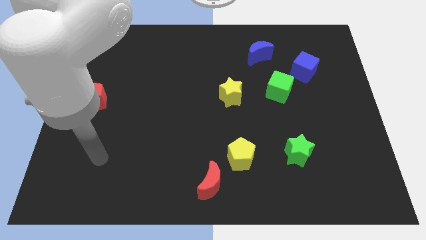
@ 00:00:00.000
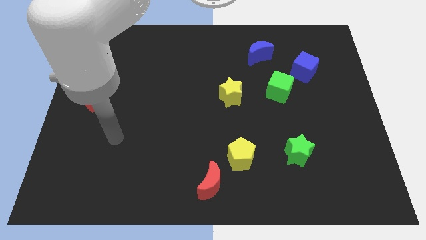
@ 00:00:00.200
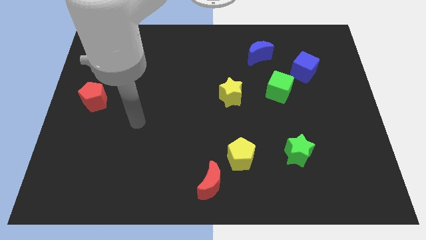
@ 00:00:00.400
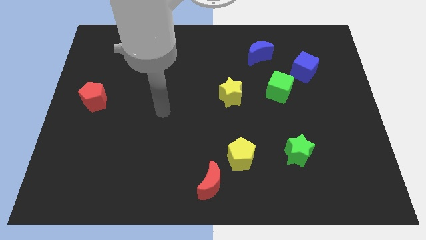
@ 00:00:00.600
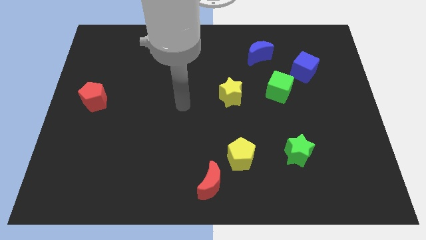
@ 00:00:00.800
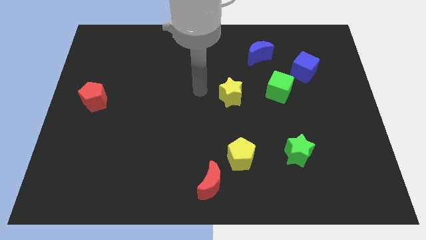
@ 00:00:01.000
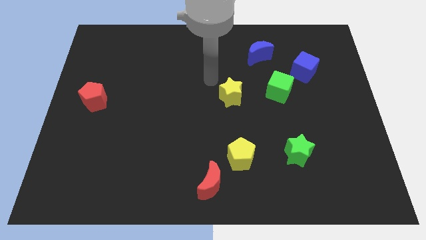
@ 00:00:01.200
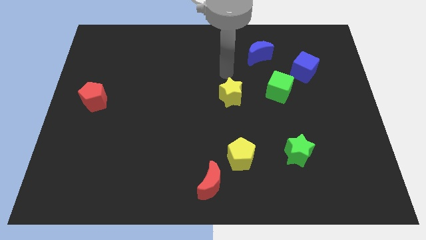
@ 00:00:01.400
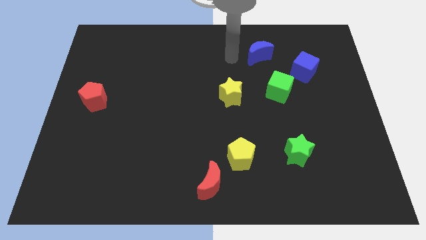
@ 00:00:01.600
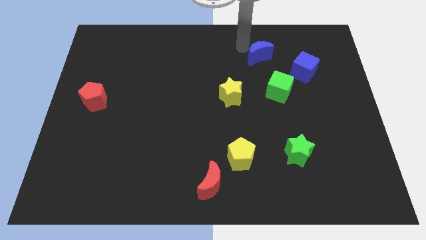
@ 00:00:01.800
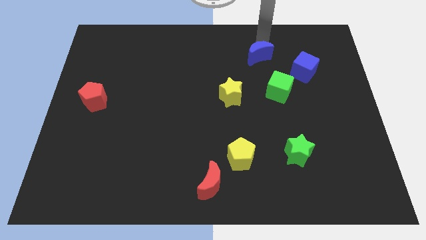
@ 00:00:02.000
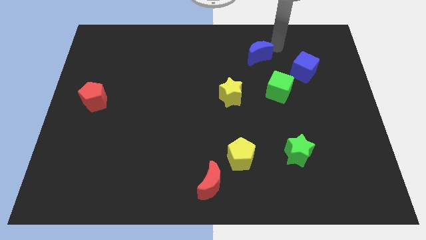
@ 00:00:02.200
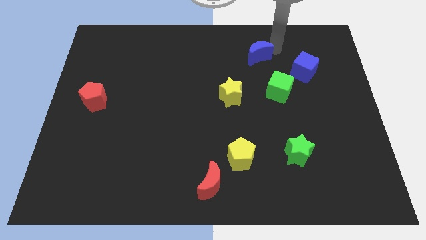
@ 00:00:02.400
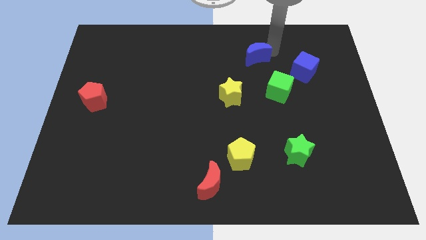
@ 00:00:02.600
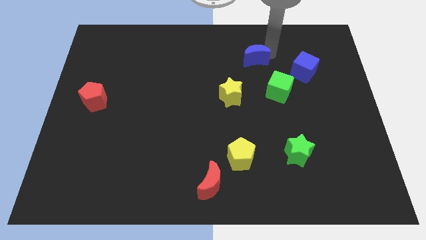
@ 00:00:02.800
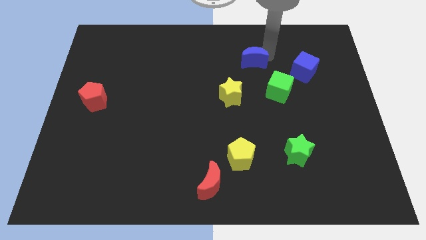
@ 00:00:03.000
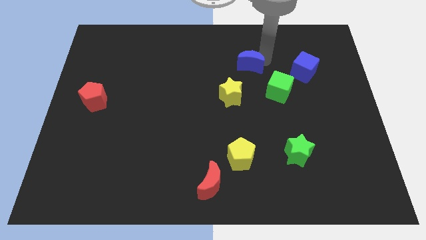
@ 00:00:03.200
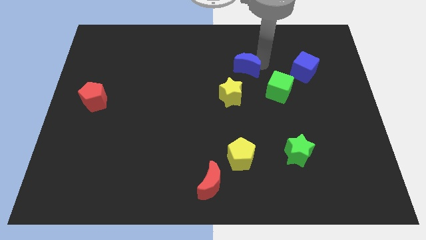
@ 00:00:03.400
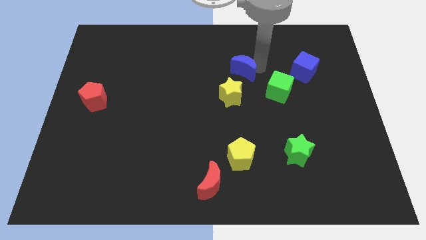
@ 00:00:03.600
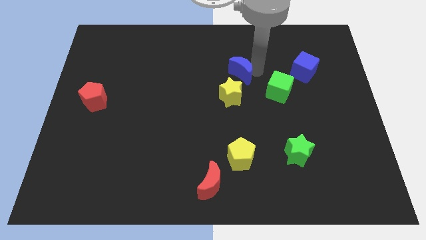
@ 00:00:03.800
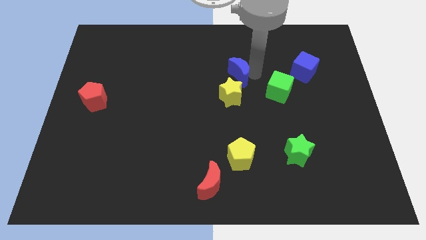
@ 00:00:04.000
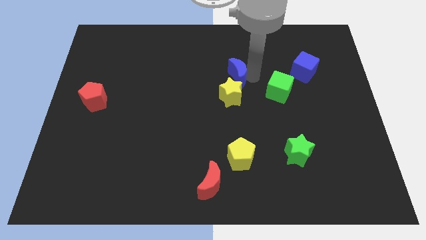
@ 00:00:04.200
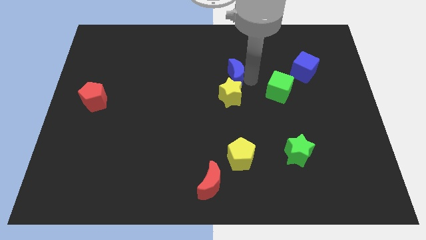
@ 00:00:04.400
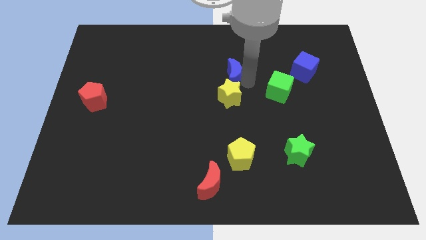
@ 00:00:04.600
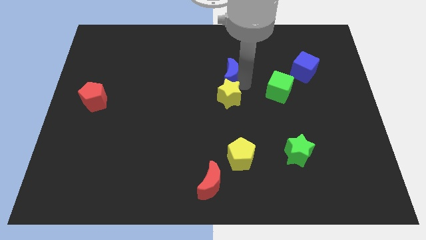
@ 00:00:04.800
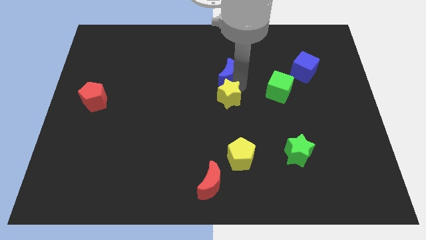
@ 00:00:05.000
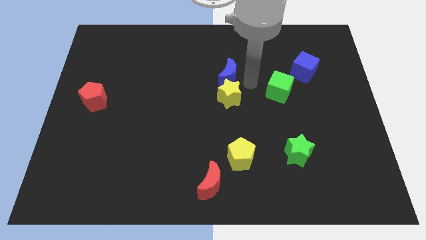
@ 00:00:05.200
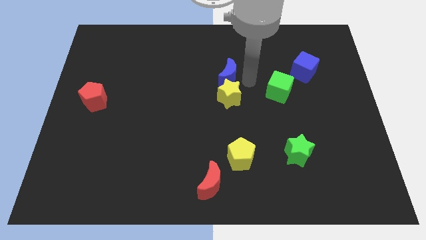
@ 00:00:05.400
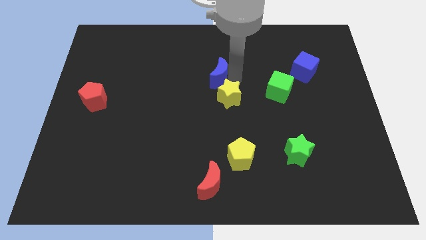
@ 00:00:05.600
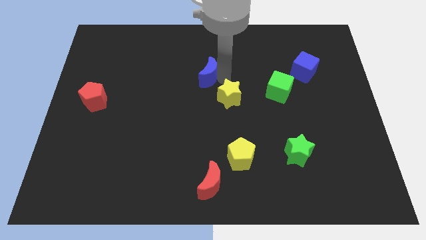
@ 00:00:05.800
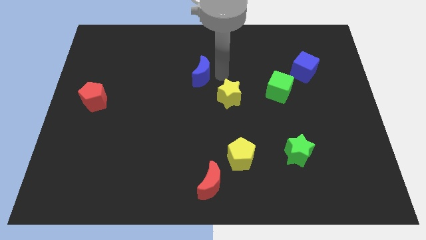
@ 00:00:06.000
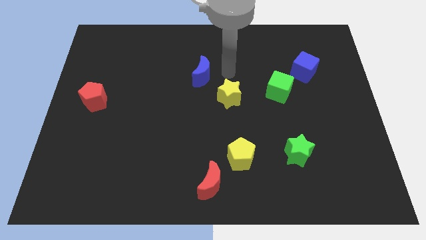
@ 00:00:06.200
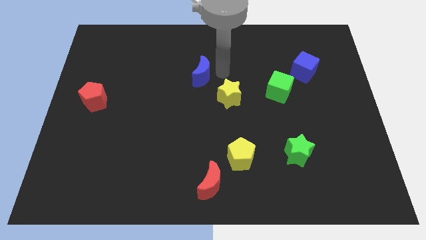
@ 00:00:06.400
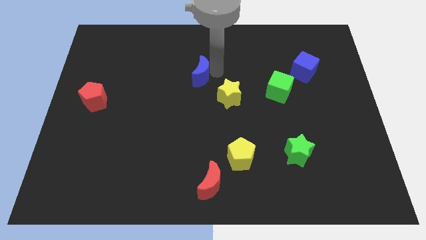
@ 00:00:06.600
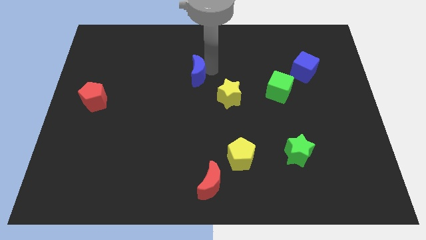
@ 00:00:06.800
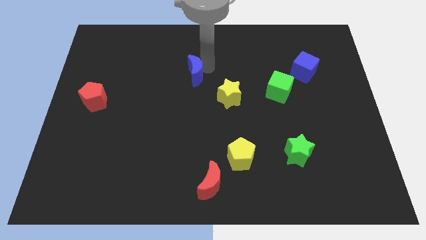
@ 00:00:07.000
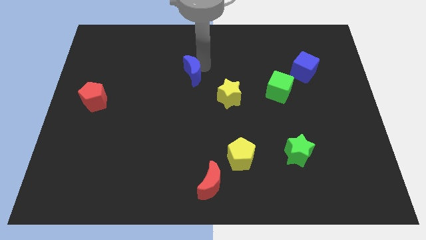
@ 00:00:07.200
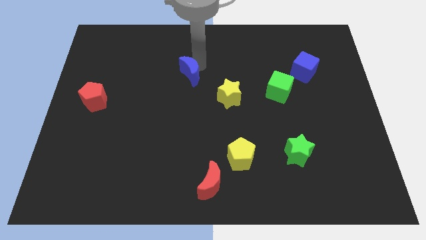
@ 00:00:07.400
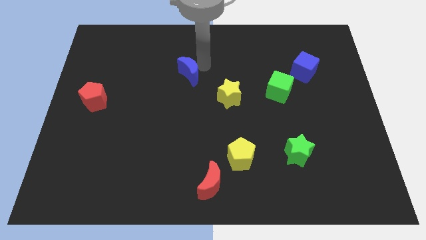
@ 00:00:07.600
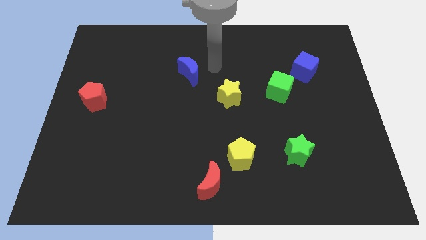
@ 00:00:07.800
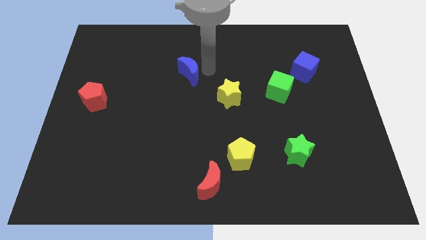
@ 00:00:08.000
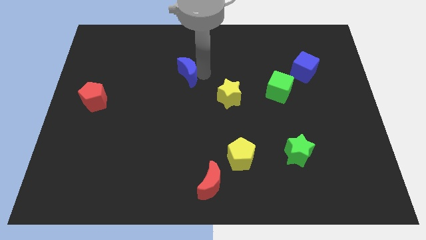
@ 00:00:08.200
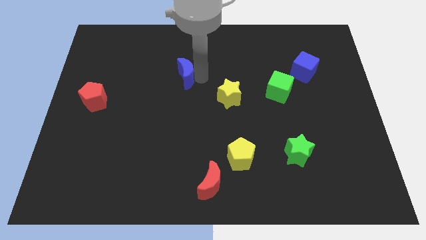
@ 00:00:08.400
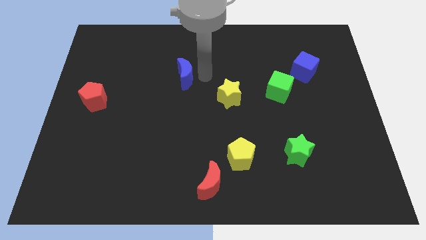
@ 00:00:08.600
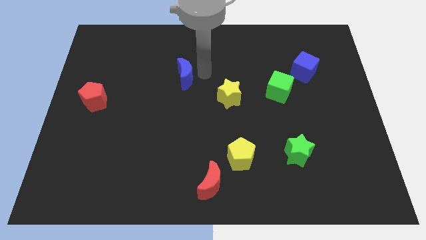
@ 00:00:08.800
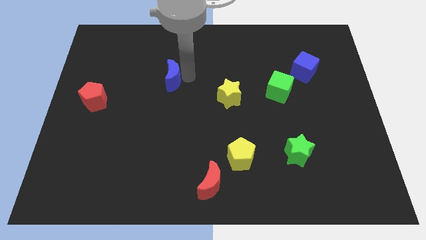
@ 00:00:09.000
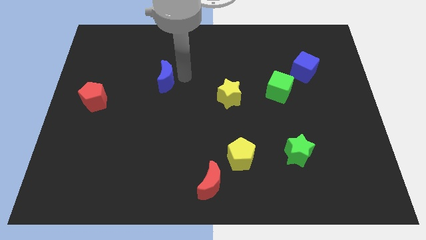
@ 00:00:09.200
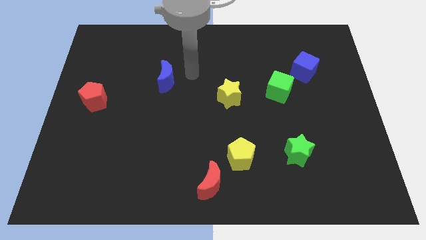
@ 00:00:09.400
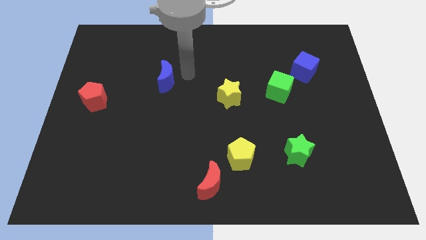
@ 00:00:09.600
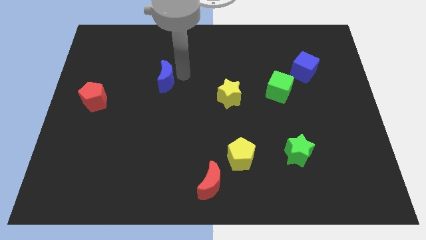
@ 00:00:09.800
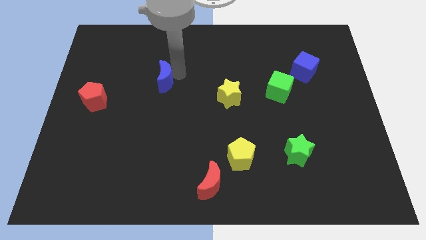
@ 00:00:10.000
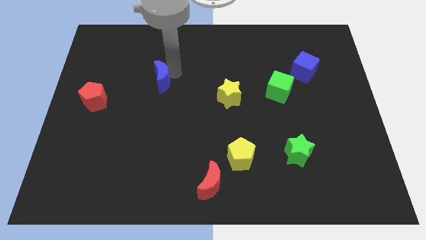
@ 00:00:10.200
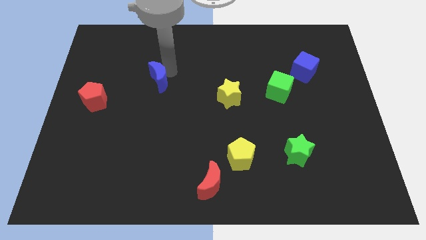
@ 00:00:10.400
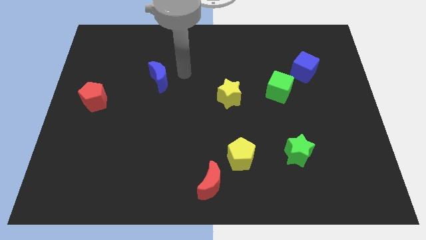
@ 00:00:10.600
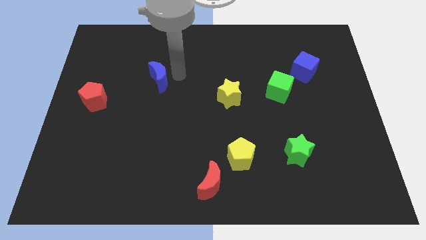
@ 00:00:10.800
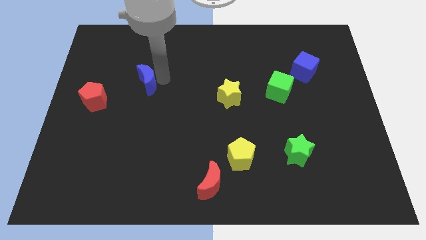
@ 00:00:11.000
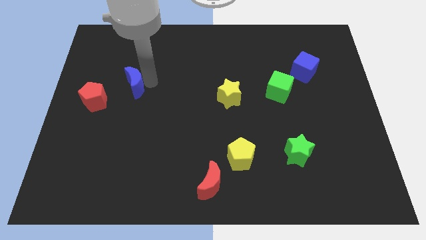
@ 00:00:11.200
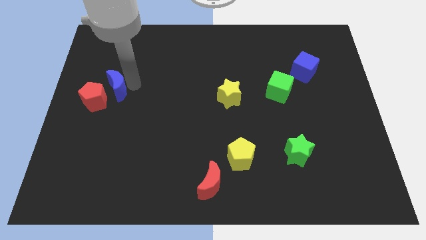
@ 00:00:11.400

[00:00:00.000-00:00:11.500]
push the blue moon close to the red pentagon

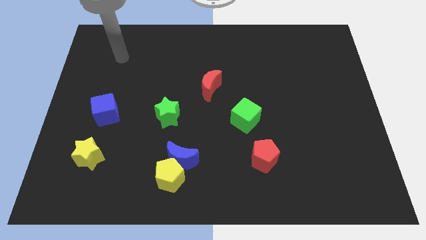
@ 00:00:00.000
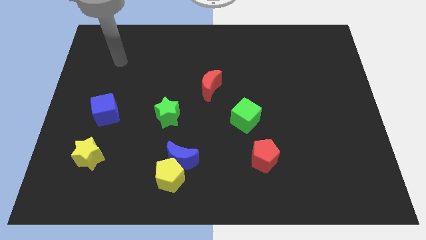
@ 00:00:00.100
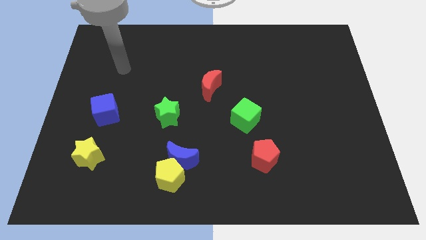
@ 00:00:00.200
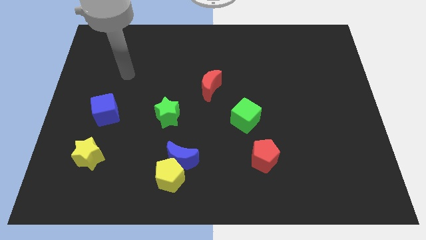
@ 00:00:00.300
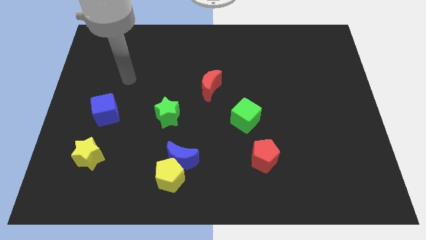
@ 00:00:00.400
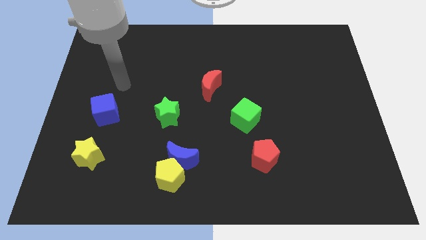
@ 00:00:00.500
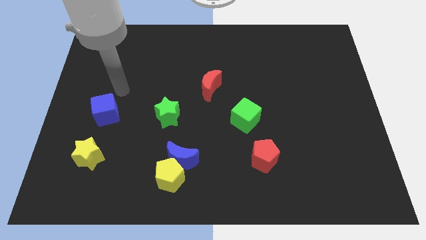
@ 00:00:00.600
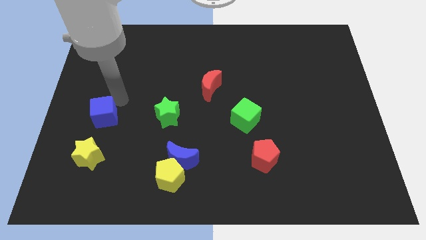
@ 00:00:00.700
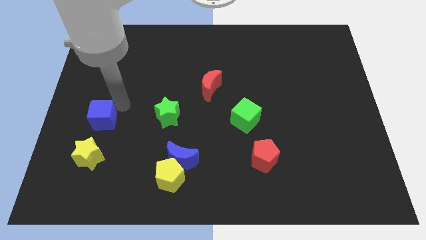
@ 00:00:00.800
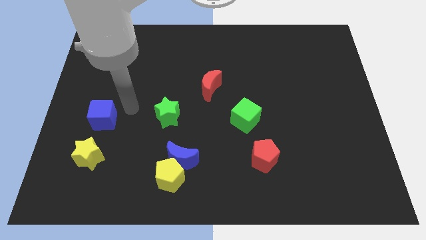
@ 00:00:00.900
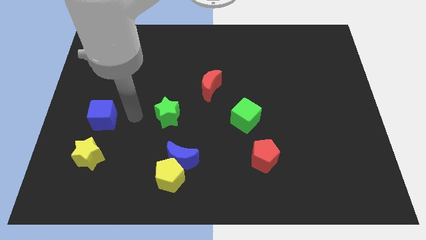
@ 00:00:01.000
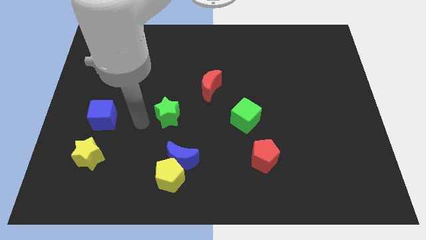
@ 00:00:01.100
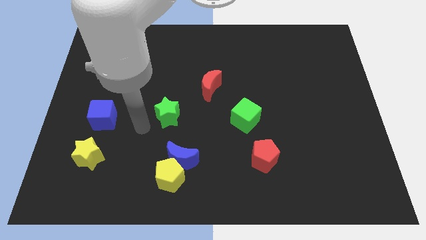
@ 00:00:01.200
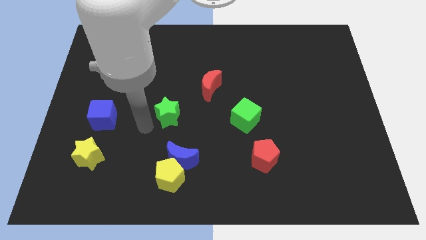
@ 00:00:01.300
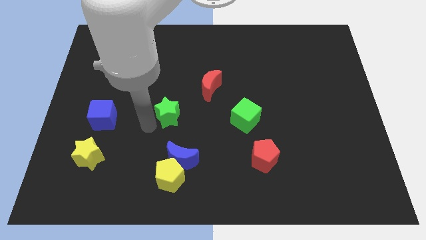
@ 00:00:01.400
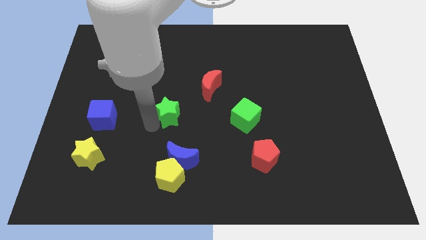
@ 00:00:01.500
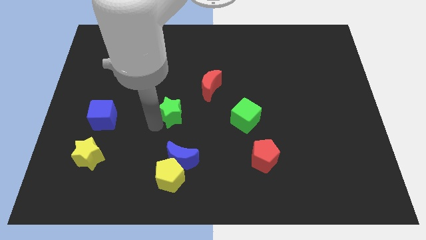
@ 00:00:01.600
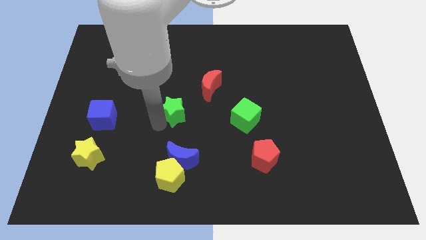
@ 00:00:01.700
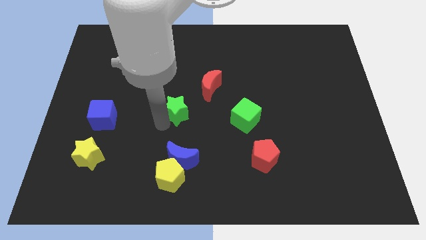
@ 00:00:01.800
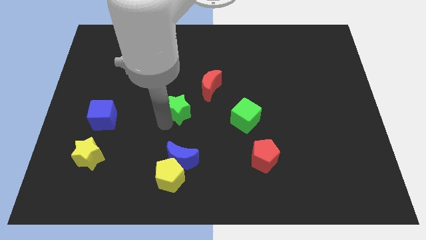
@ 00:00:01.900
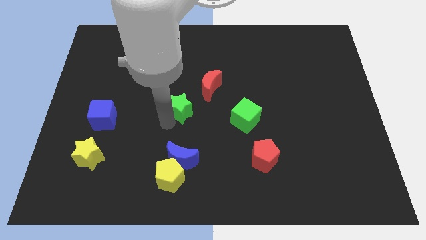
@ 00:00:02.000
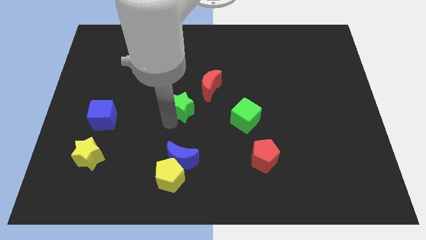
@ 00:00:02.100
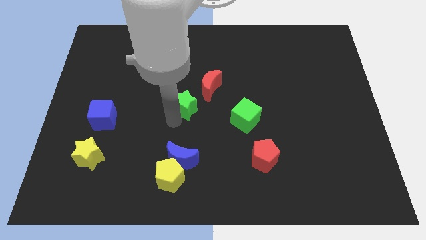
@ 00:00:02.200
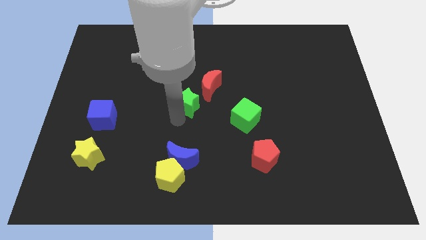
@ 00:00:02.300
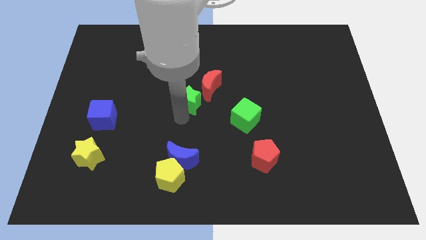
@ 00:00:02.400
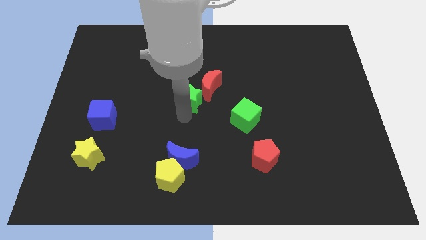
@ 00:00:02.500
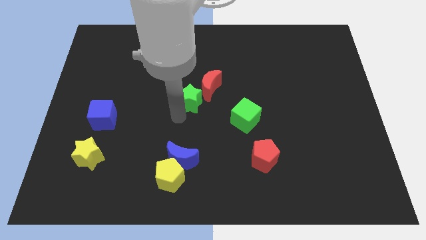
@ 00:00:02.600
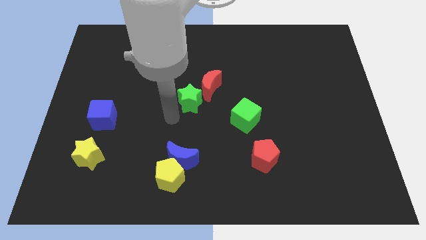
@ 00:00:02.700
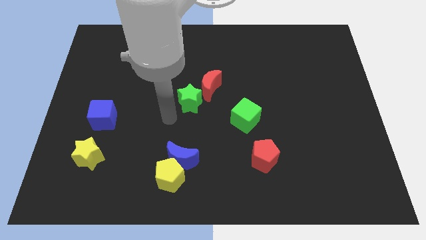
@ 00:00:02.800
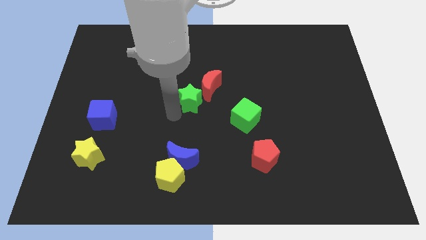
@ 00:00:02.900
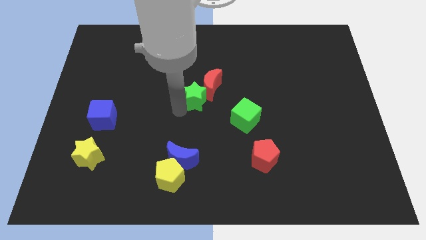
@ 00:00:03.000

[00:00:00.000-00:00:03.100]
push the green star to the red moon
